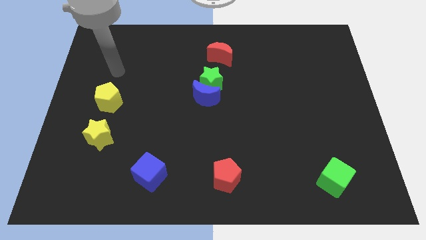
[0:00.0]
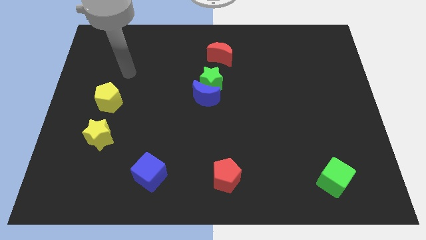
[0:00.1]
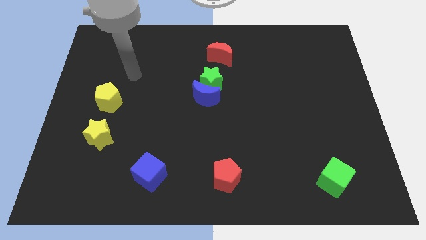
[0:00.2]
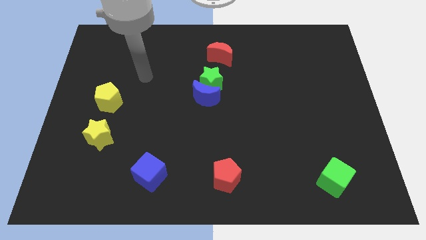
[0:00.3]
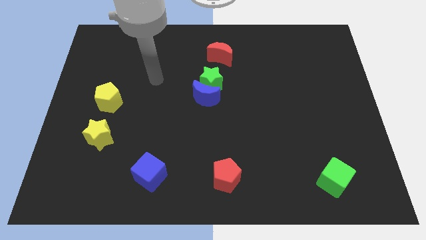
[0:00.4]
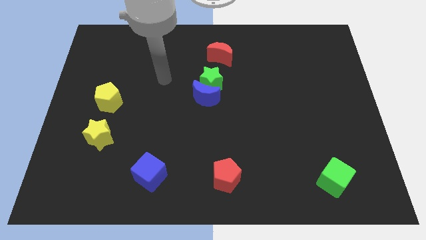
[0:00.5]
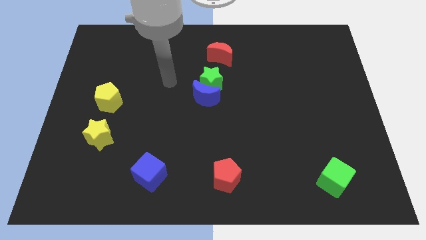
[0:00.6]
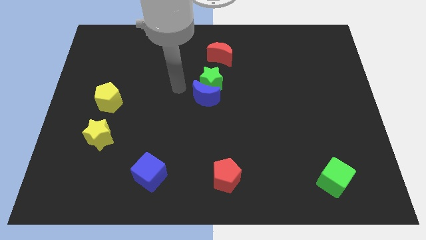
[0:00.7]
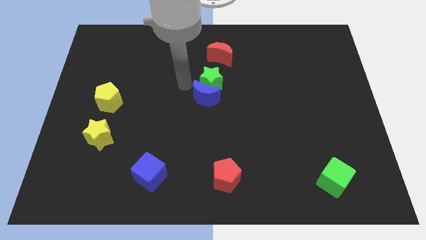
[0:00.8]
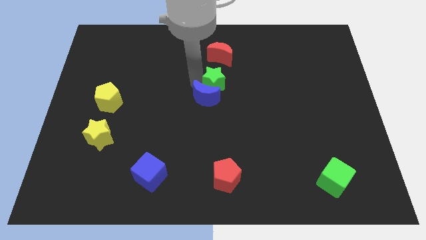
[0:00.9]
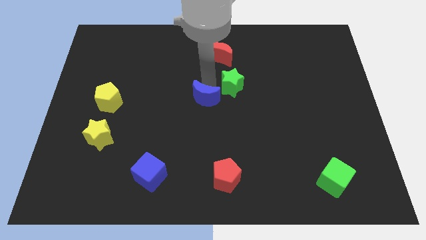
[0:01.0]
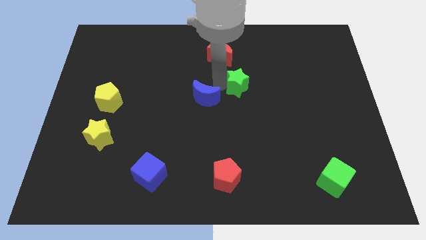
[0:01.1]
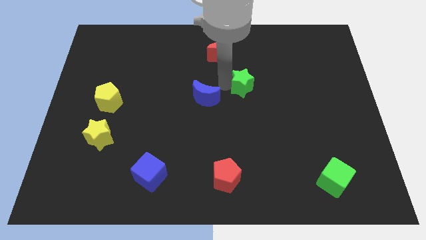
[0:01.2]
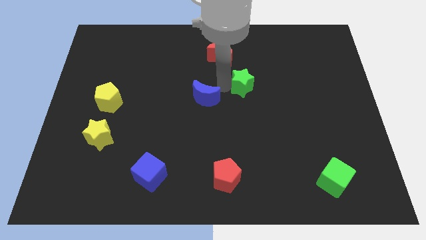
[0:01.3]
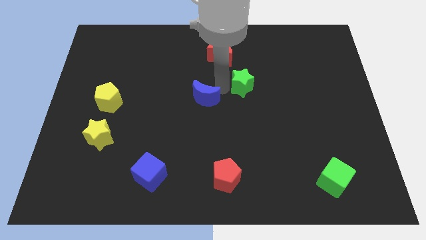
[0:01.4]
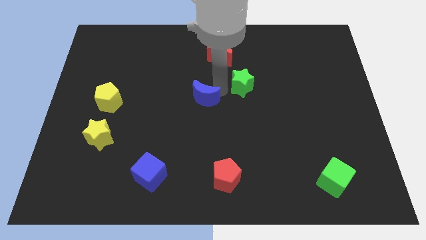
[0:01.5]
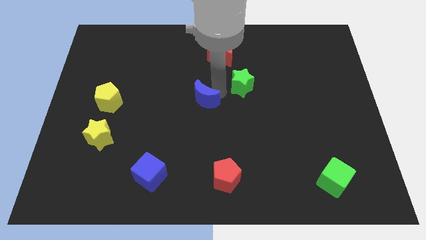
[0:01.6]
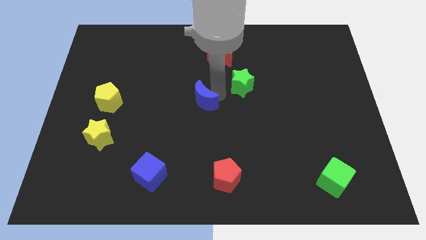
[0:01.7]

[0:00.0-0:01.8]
pull the blue moon apart from the green star

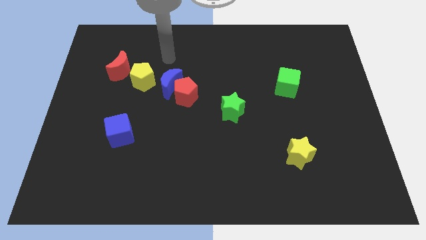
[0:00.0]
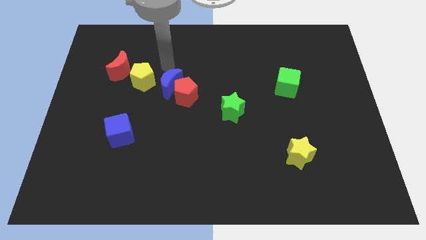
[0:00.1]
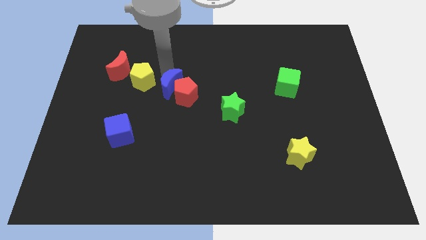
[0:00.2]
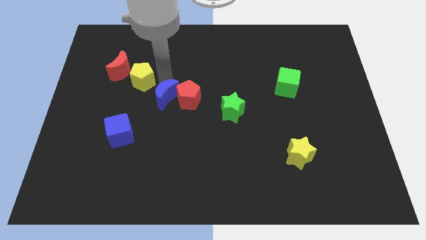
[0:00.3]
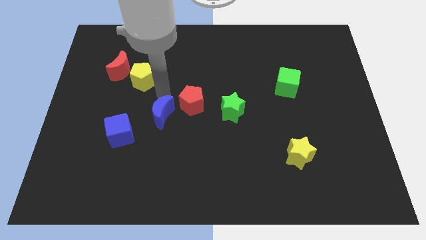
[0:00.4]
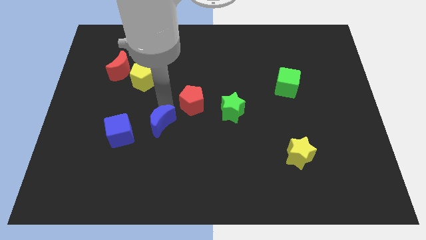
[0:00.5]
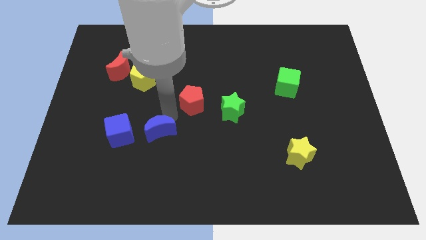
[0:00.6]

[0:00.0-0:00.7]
separate the red pentagon from the blue moon

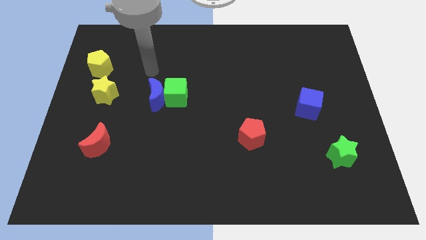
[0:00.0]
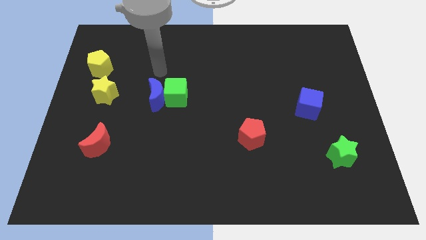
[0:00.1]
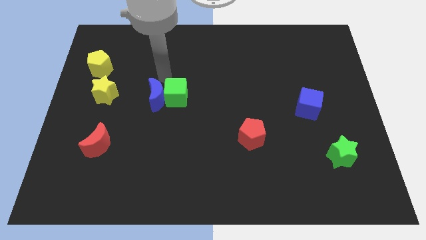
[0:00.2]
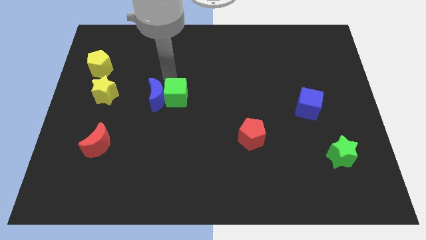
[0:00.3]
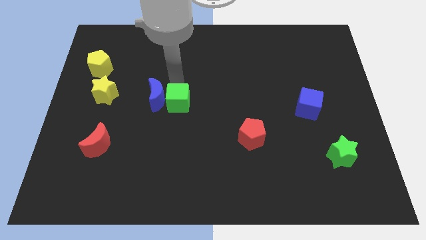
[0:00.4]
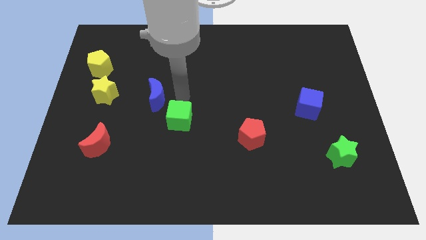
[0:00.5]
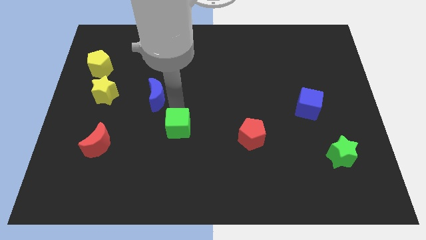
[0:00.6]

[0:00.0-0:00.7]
move the blue moon away from the green cube

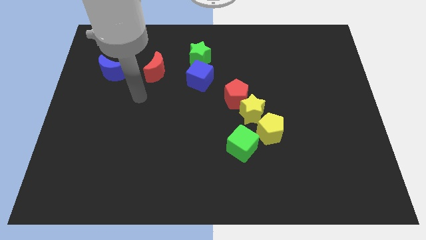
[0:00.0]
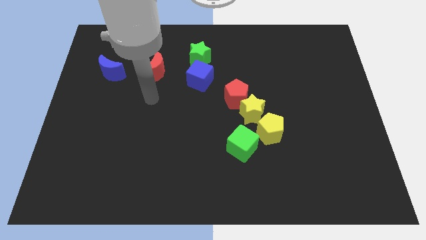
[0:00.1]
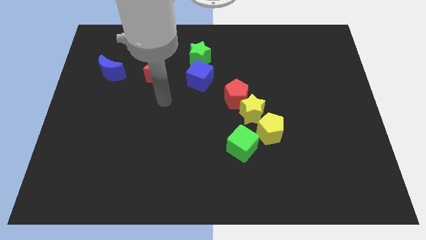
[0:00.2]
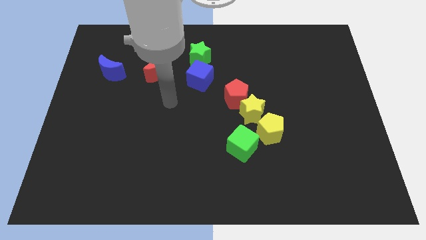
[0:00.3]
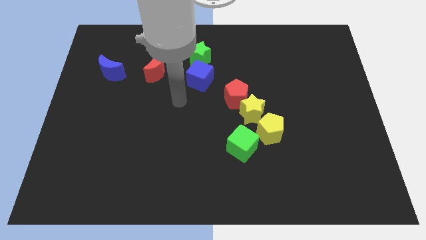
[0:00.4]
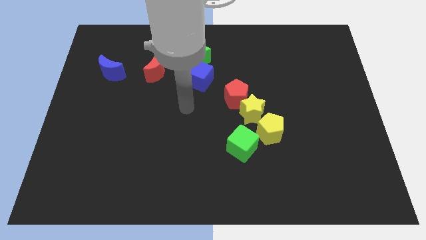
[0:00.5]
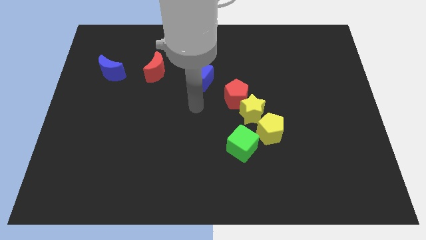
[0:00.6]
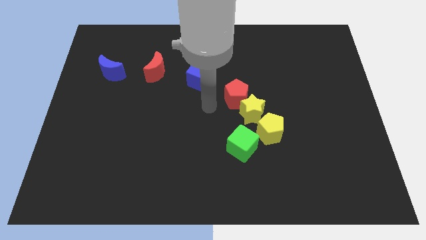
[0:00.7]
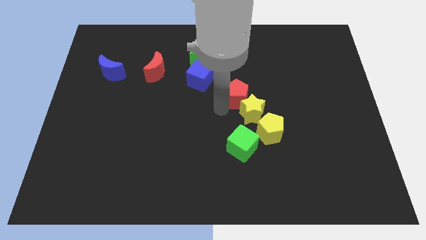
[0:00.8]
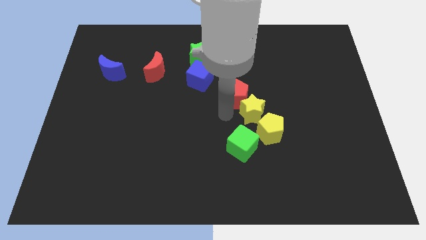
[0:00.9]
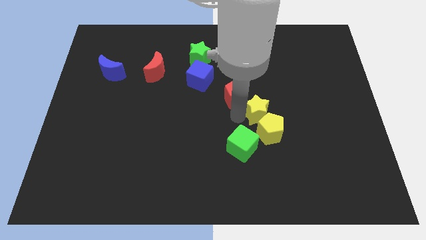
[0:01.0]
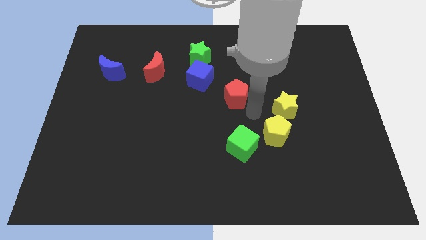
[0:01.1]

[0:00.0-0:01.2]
pull the red pentagon apart from the yellow star

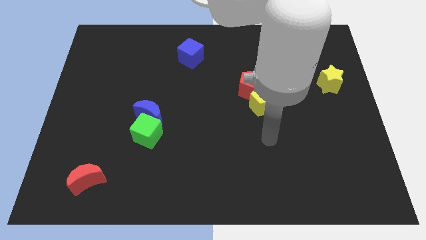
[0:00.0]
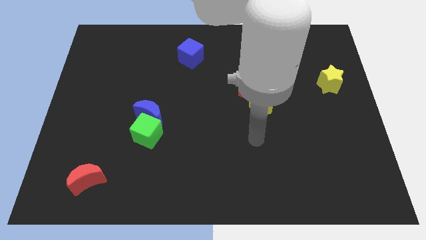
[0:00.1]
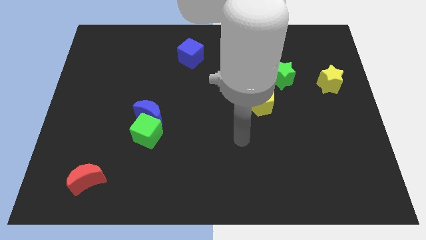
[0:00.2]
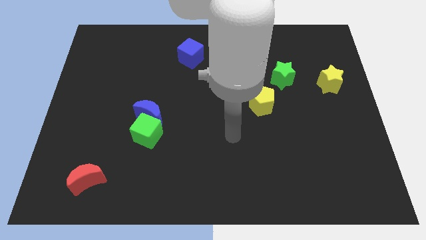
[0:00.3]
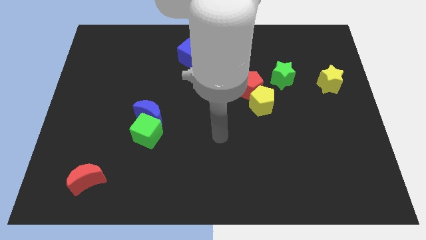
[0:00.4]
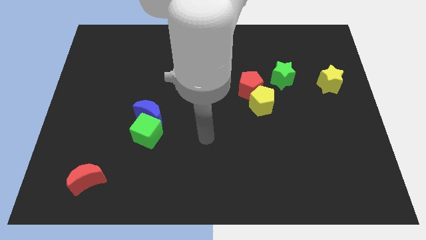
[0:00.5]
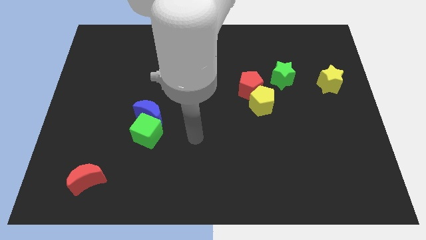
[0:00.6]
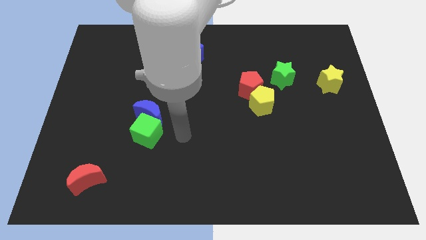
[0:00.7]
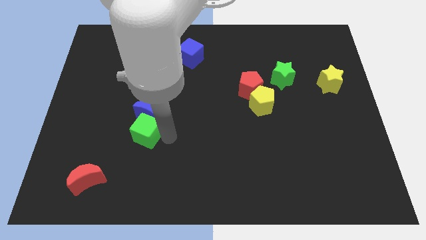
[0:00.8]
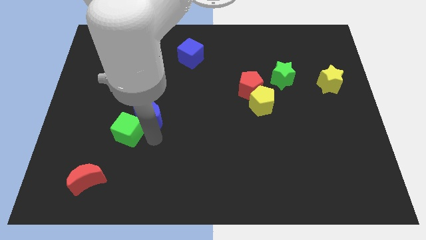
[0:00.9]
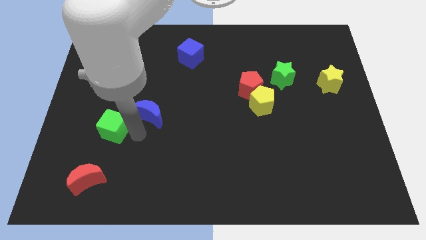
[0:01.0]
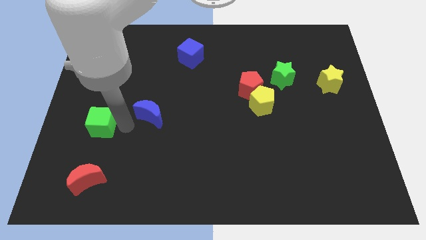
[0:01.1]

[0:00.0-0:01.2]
separate the blue moon from the green cube

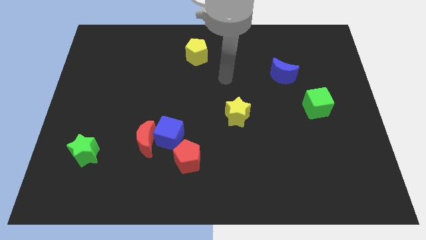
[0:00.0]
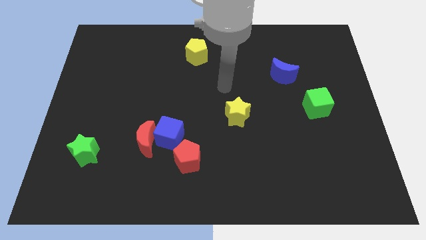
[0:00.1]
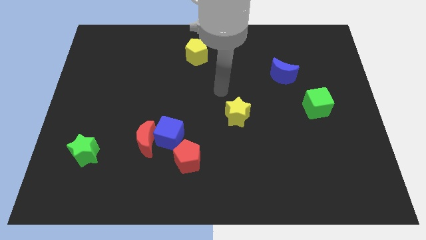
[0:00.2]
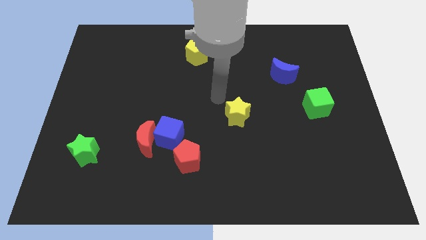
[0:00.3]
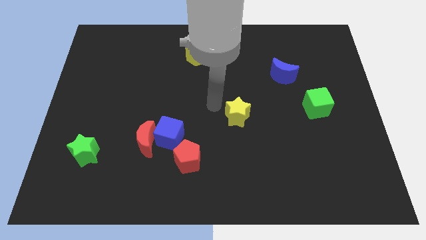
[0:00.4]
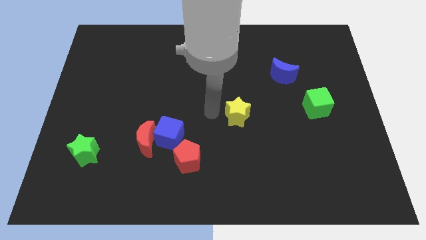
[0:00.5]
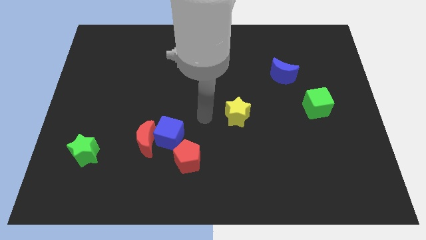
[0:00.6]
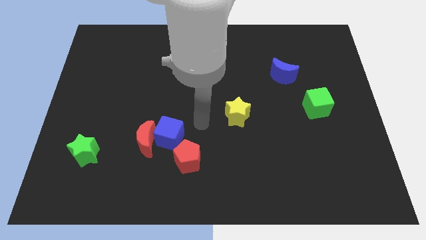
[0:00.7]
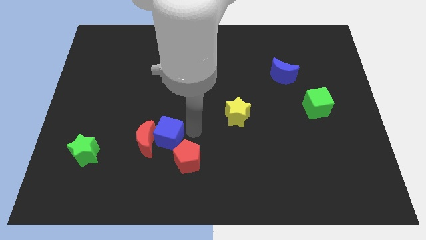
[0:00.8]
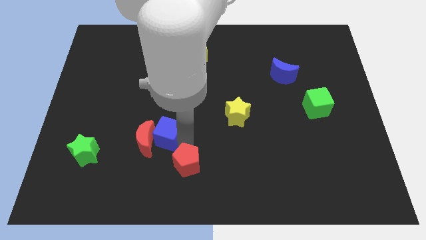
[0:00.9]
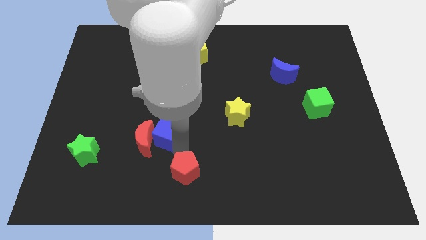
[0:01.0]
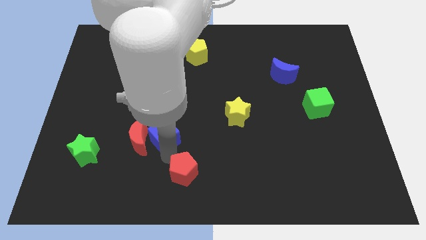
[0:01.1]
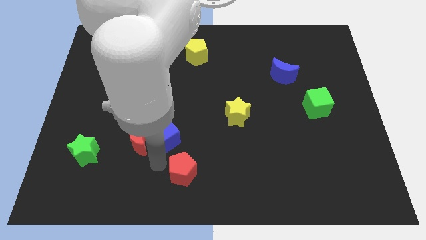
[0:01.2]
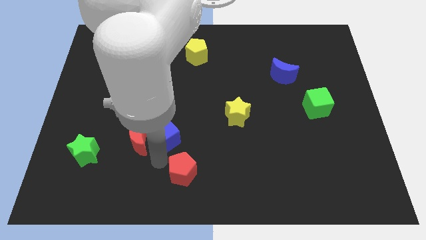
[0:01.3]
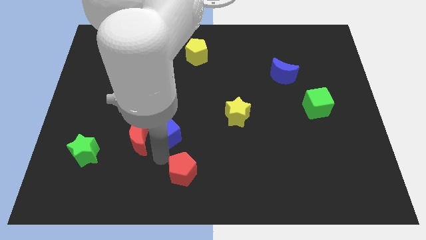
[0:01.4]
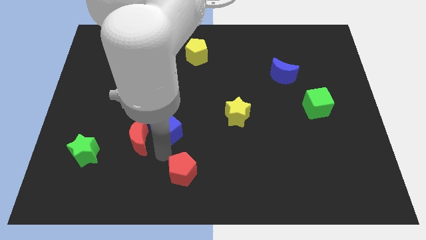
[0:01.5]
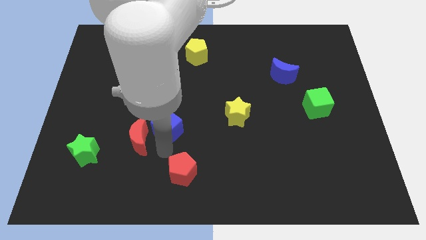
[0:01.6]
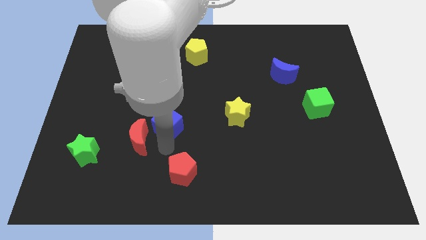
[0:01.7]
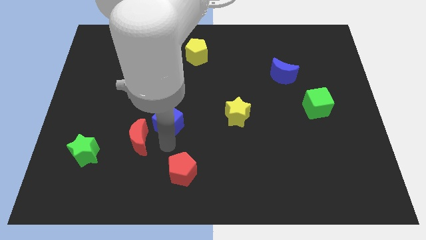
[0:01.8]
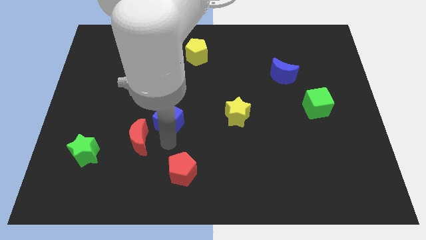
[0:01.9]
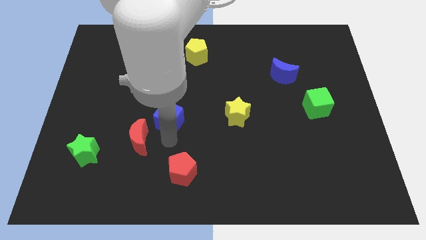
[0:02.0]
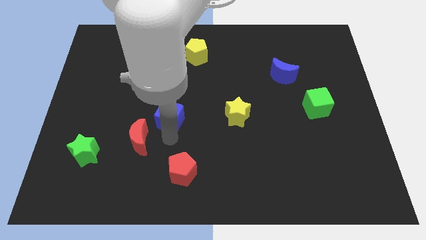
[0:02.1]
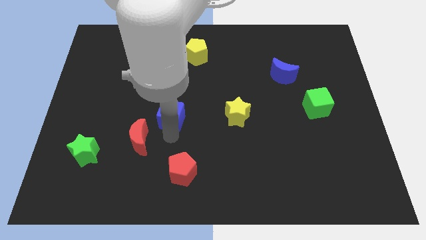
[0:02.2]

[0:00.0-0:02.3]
pull the blue cube apart from the red moon and red pentagon

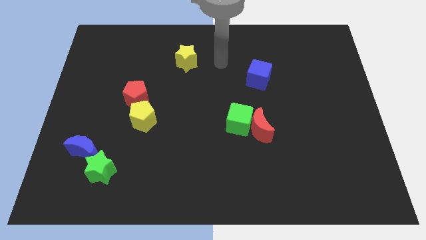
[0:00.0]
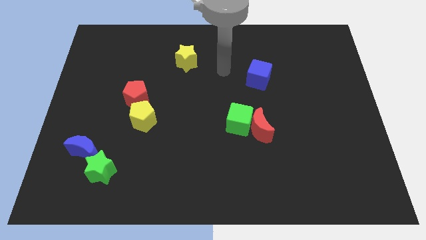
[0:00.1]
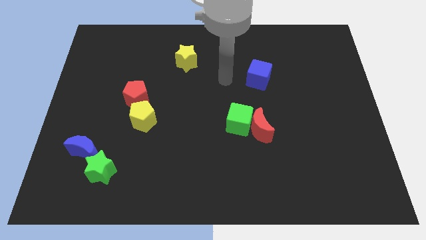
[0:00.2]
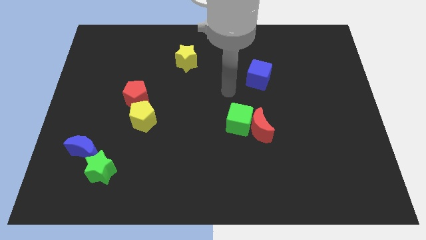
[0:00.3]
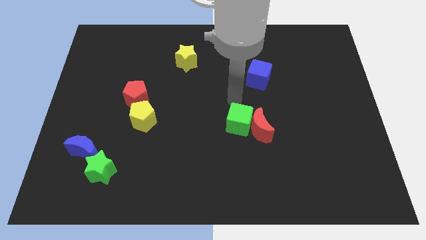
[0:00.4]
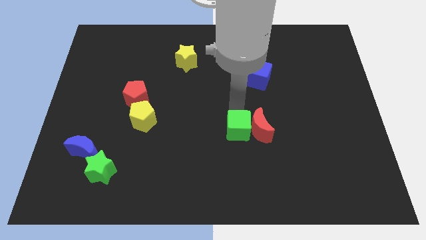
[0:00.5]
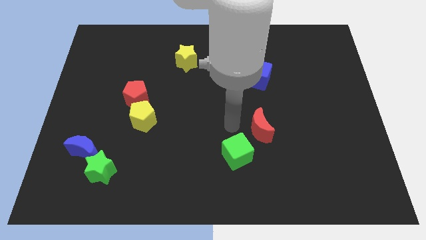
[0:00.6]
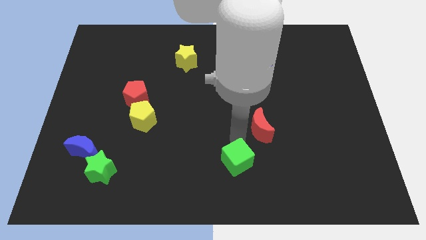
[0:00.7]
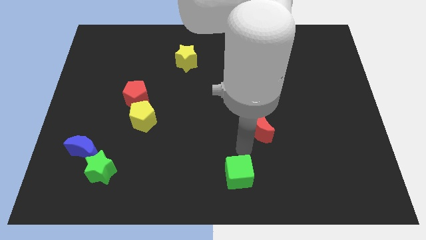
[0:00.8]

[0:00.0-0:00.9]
move the red moon away from the green cube

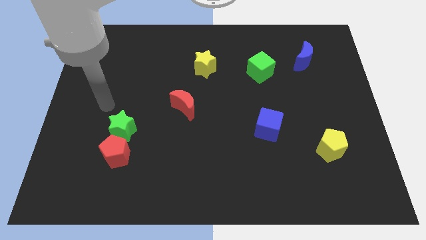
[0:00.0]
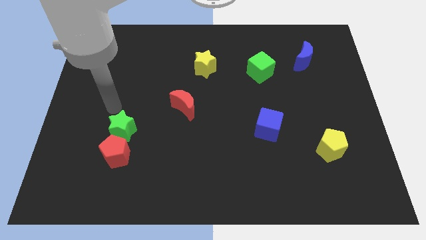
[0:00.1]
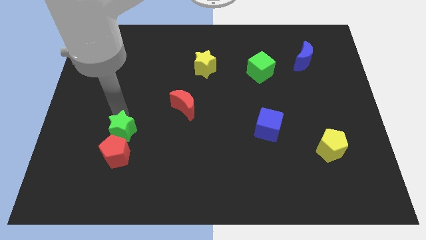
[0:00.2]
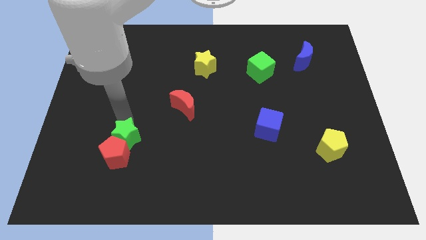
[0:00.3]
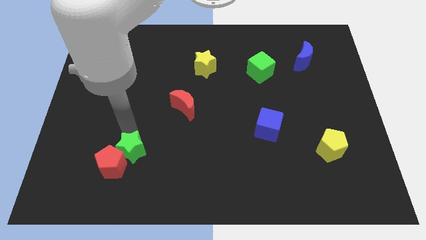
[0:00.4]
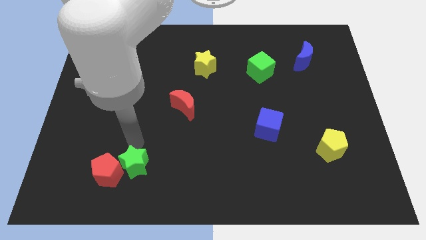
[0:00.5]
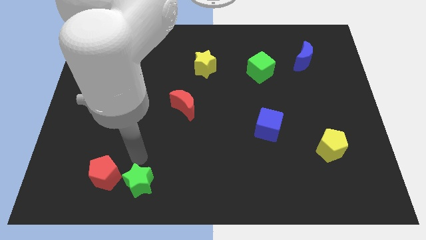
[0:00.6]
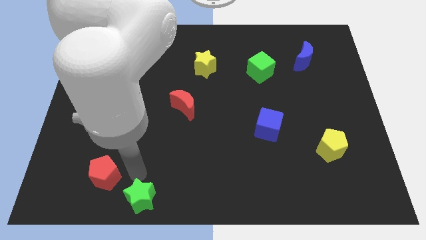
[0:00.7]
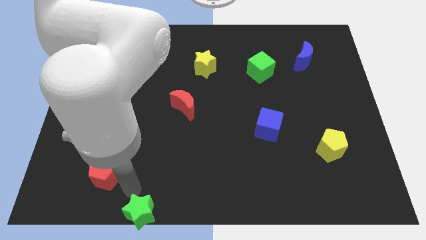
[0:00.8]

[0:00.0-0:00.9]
move the red pentagon away from the green star
